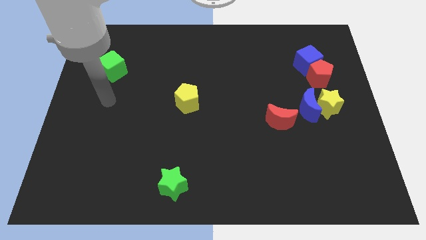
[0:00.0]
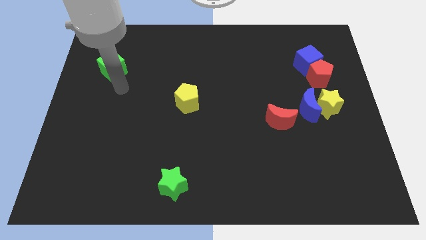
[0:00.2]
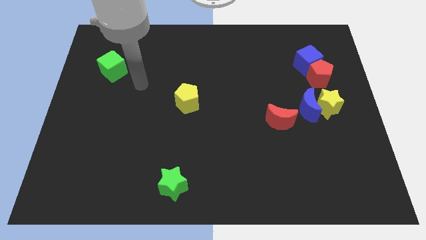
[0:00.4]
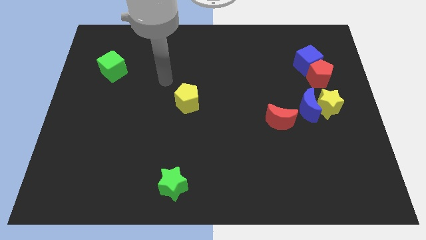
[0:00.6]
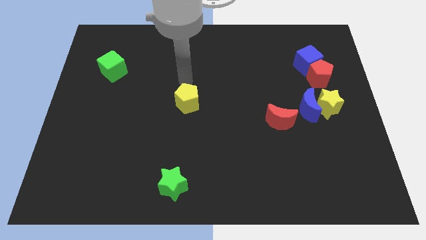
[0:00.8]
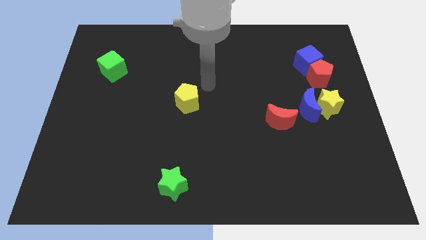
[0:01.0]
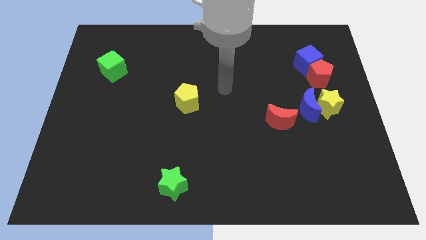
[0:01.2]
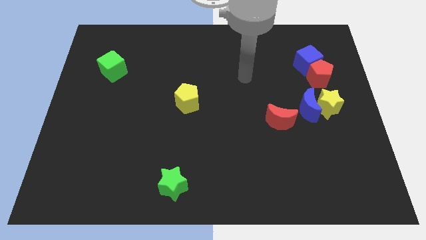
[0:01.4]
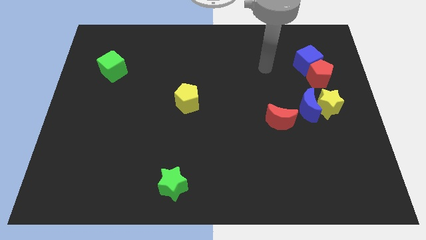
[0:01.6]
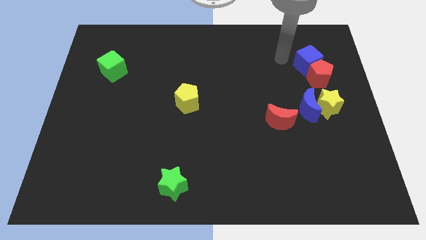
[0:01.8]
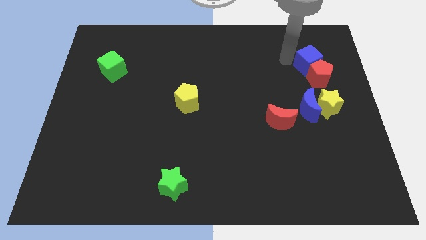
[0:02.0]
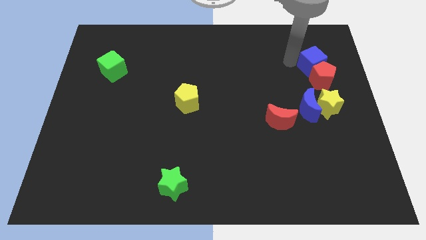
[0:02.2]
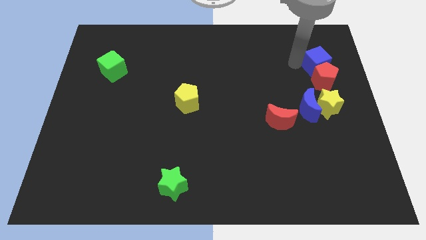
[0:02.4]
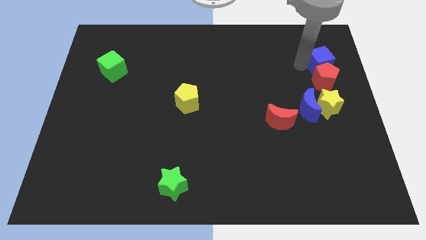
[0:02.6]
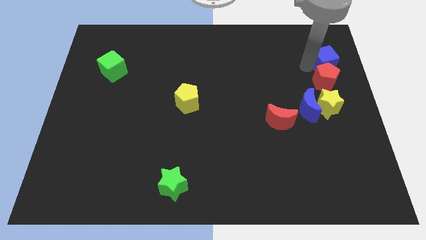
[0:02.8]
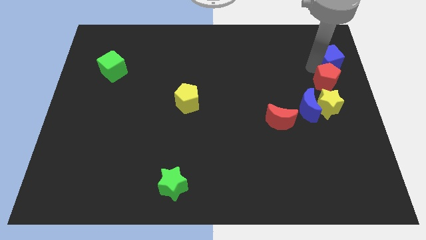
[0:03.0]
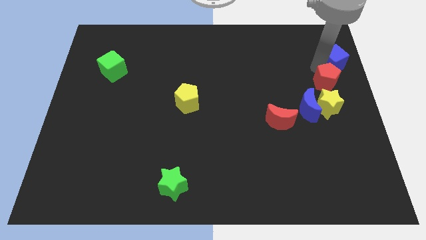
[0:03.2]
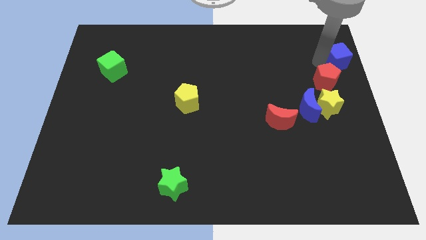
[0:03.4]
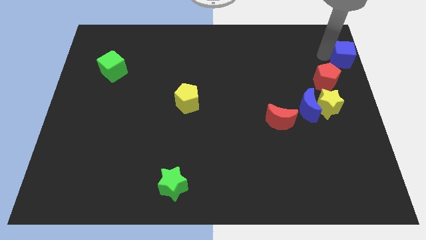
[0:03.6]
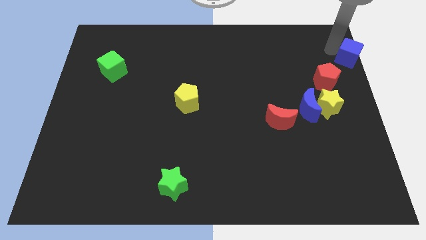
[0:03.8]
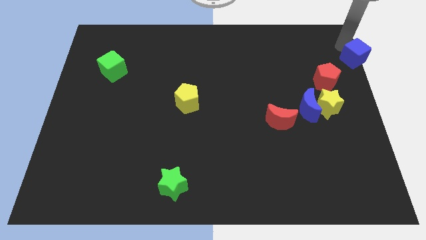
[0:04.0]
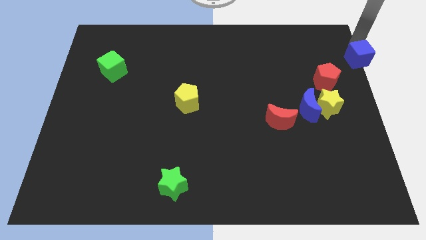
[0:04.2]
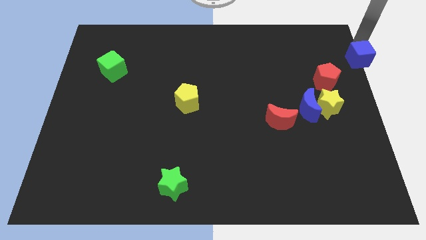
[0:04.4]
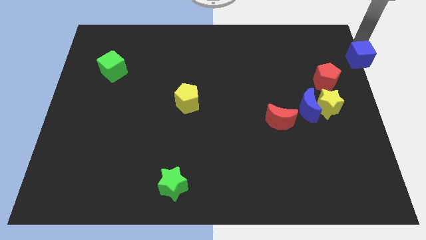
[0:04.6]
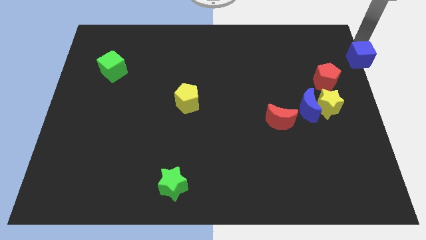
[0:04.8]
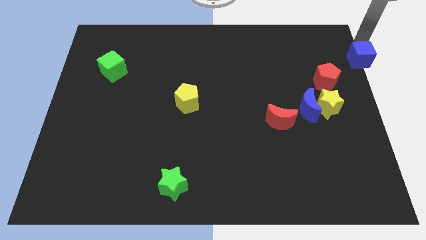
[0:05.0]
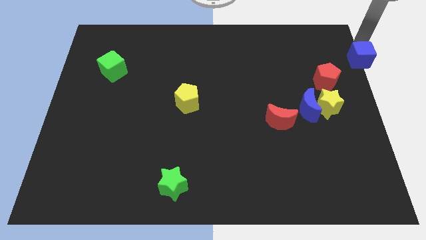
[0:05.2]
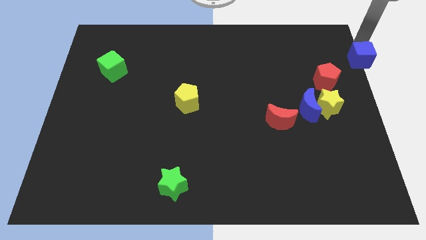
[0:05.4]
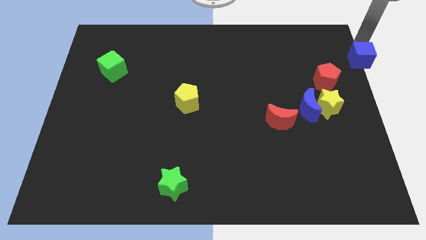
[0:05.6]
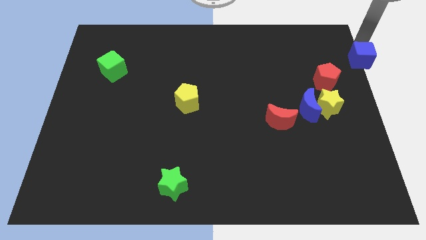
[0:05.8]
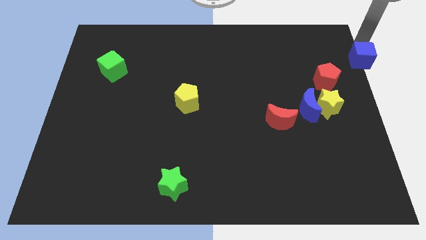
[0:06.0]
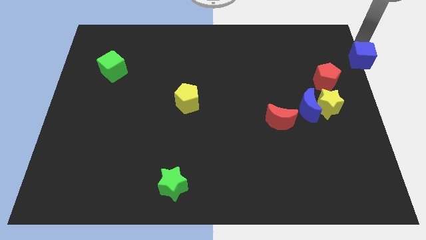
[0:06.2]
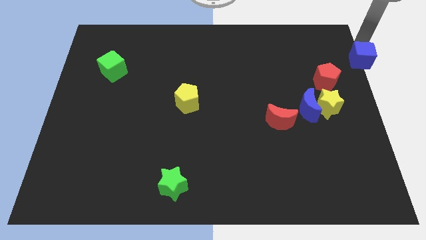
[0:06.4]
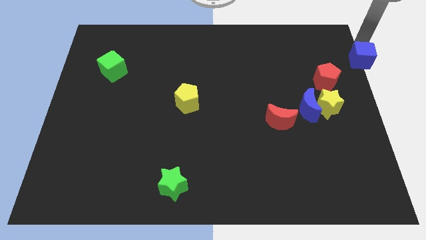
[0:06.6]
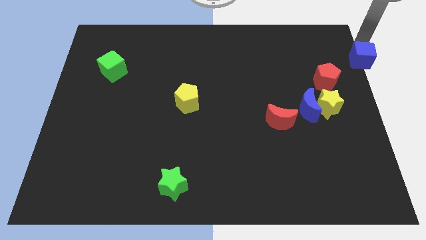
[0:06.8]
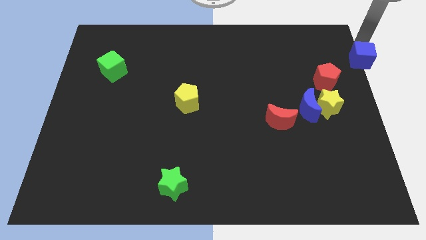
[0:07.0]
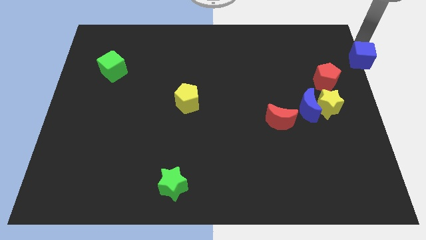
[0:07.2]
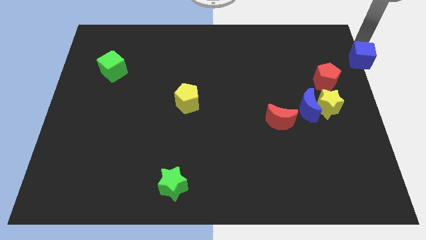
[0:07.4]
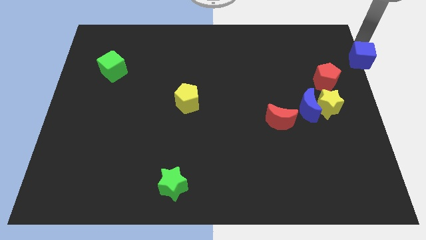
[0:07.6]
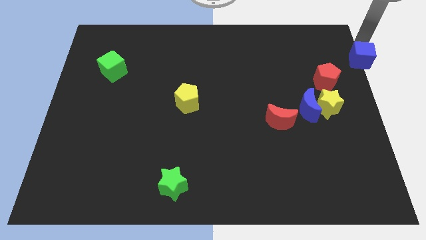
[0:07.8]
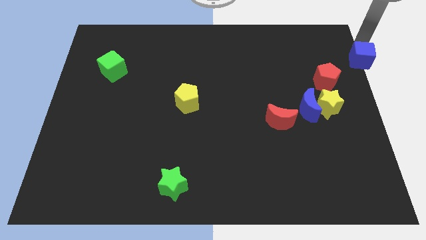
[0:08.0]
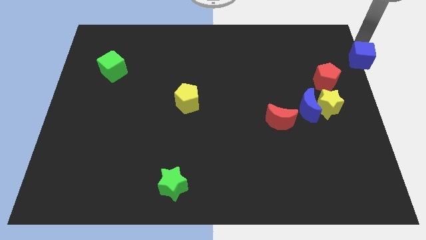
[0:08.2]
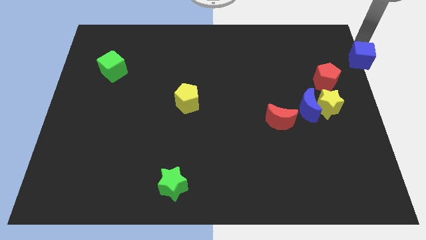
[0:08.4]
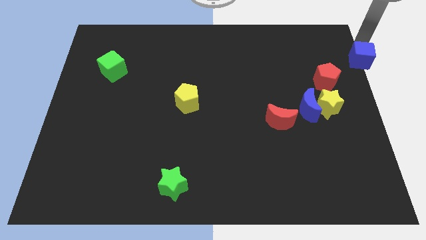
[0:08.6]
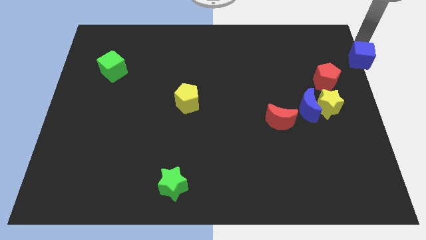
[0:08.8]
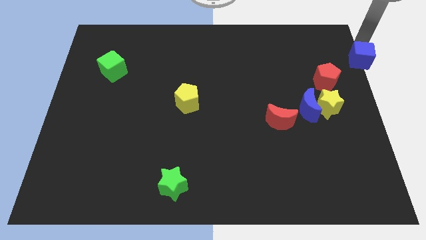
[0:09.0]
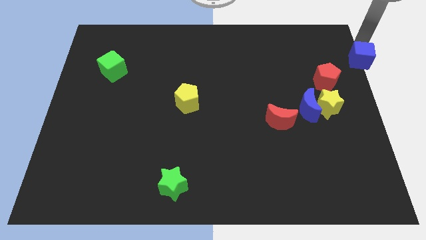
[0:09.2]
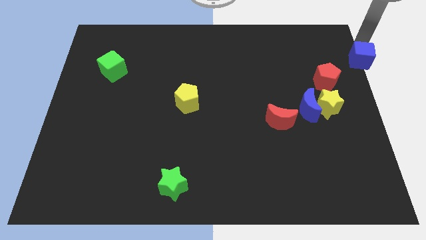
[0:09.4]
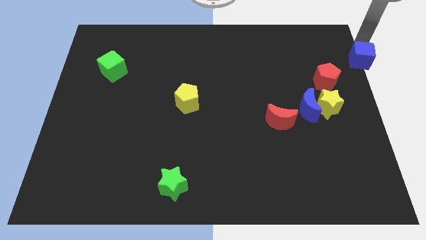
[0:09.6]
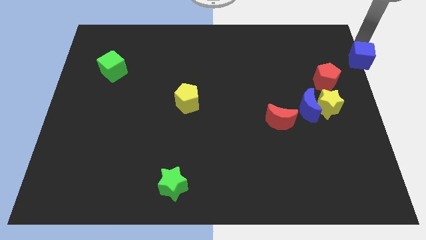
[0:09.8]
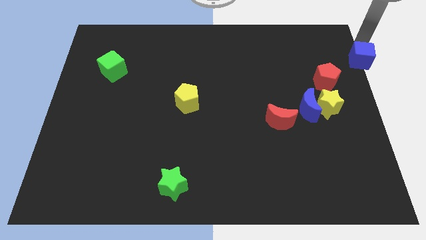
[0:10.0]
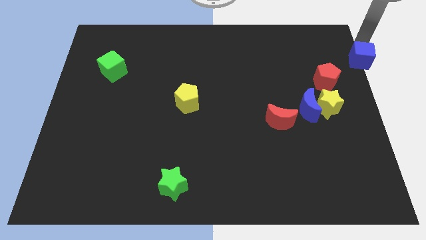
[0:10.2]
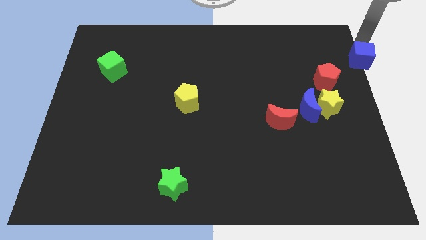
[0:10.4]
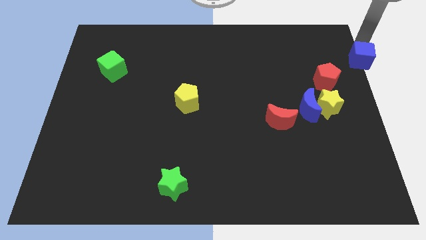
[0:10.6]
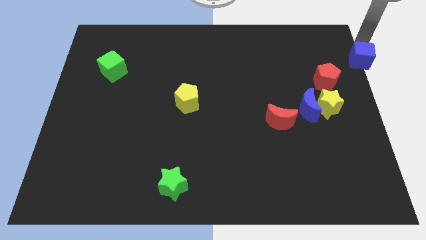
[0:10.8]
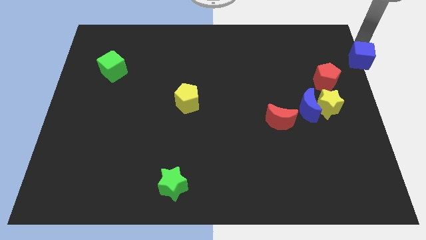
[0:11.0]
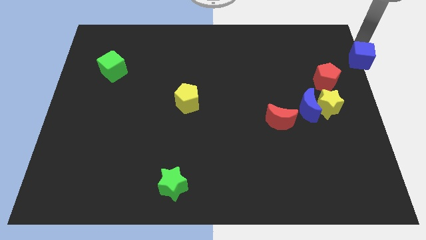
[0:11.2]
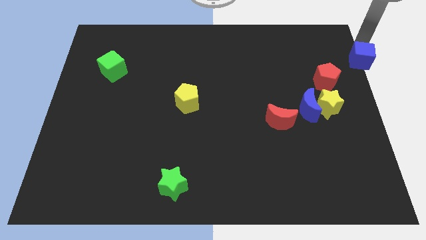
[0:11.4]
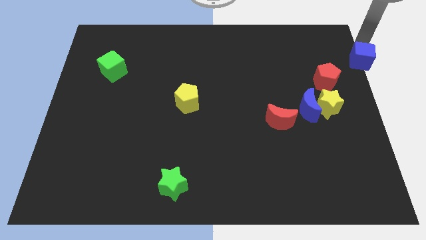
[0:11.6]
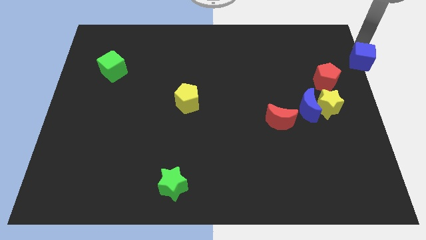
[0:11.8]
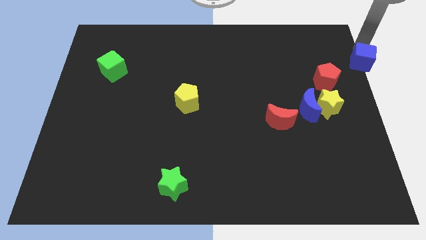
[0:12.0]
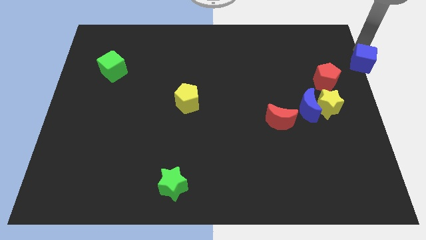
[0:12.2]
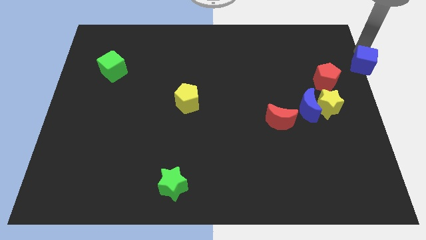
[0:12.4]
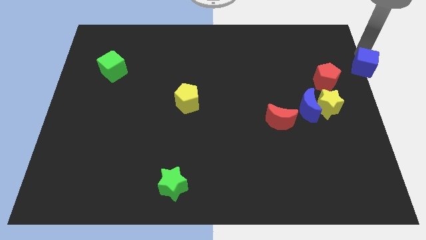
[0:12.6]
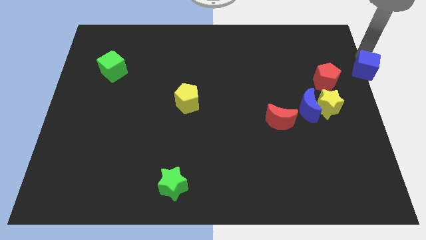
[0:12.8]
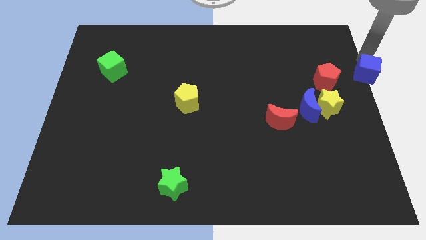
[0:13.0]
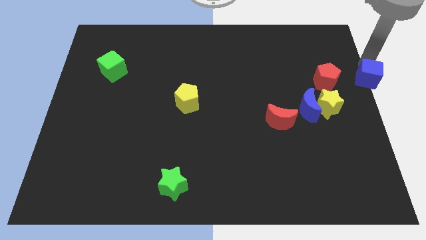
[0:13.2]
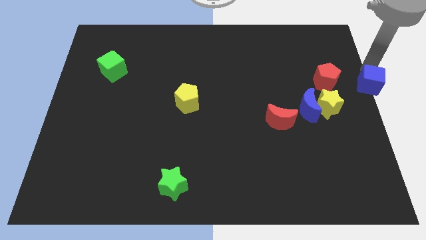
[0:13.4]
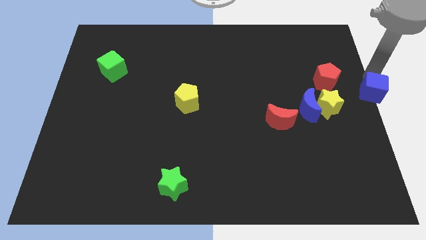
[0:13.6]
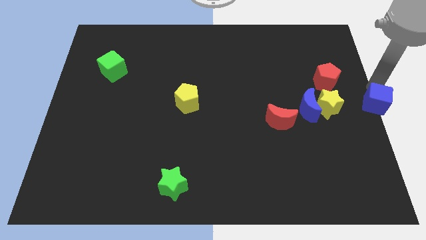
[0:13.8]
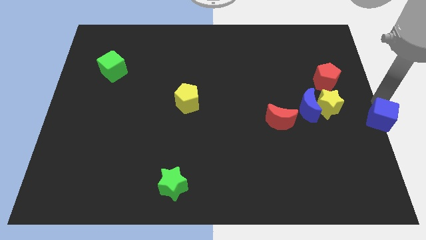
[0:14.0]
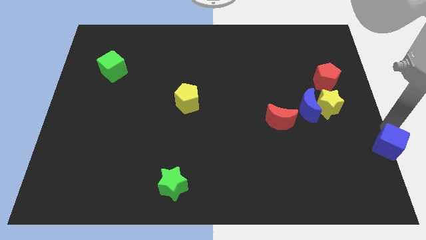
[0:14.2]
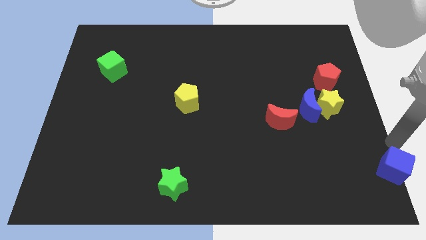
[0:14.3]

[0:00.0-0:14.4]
slide the blue cube to the bottom right of the board
